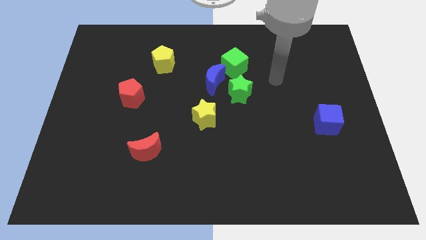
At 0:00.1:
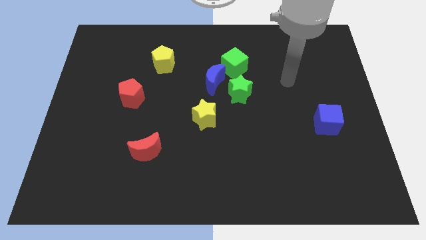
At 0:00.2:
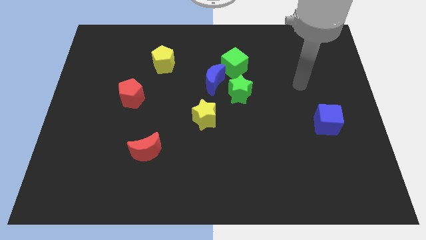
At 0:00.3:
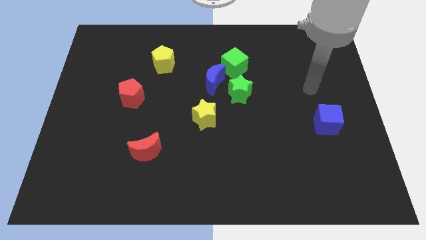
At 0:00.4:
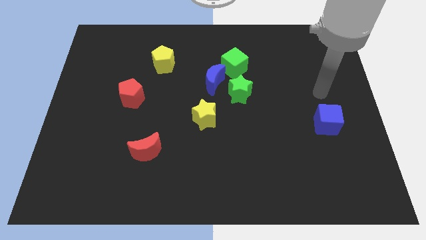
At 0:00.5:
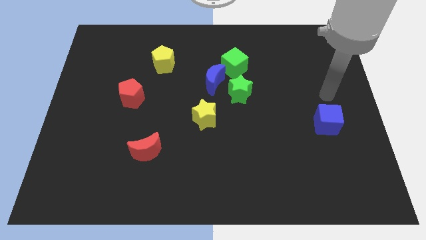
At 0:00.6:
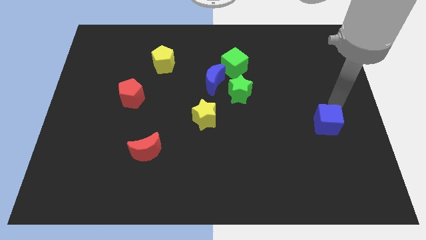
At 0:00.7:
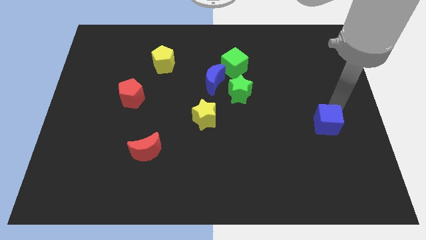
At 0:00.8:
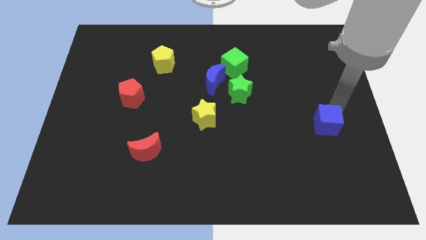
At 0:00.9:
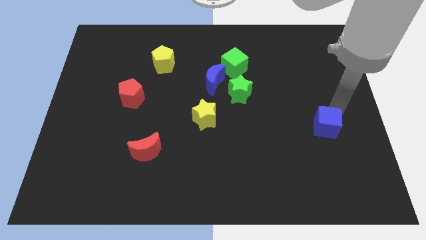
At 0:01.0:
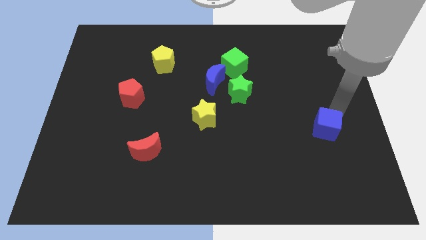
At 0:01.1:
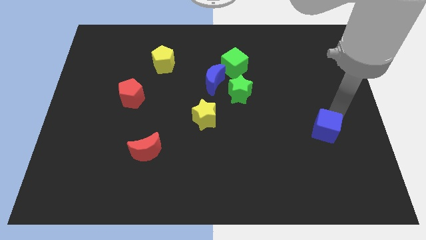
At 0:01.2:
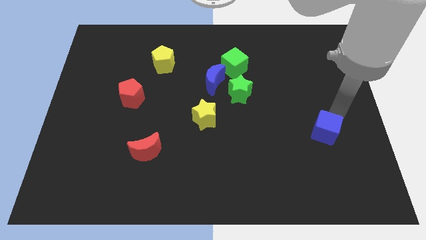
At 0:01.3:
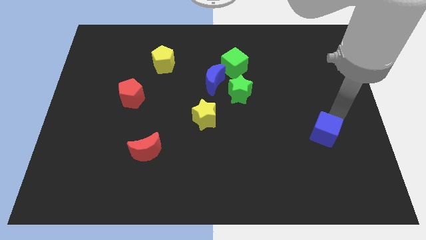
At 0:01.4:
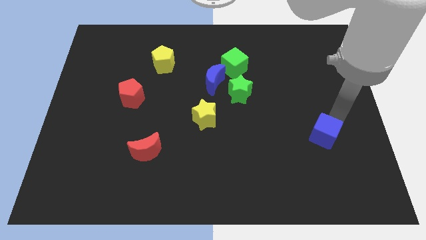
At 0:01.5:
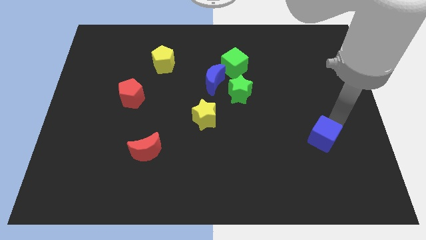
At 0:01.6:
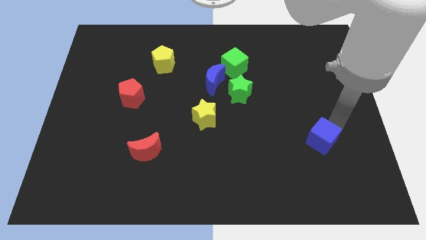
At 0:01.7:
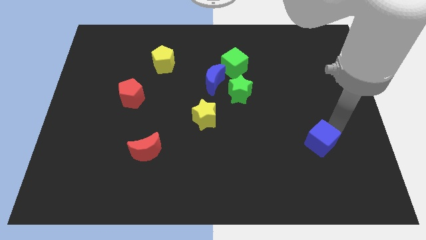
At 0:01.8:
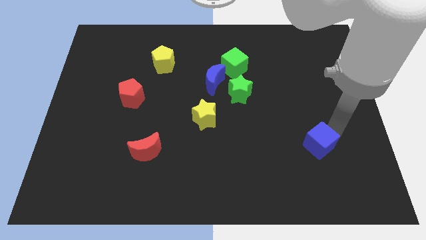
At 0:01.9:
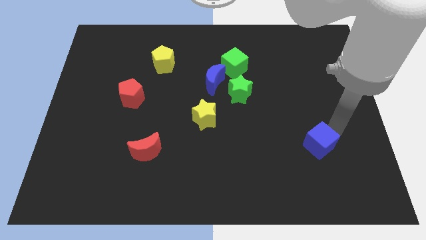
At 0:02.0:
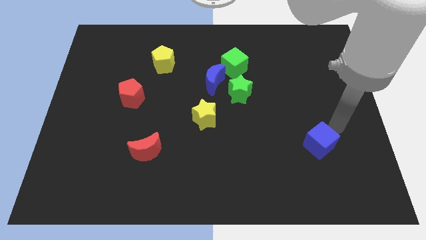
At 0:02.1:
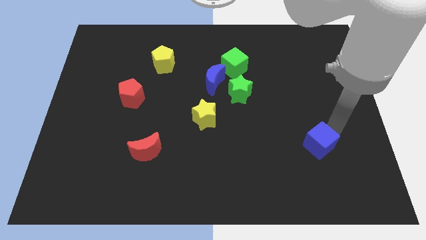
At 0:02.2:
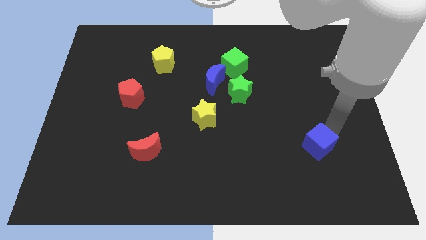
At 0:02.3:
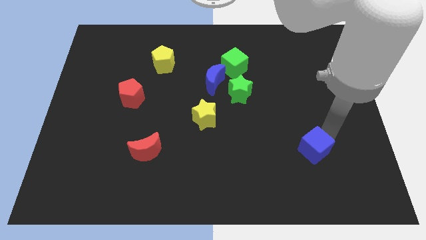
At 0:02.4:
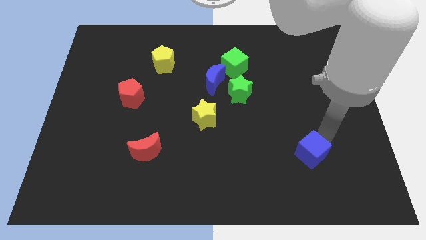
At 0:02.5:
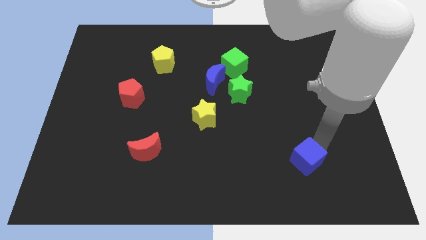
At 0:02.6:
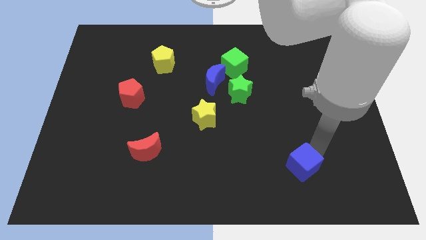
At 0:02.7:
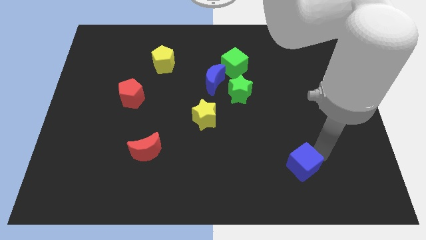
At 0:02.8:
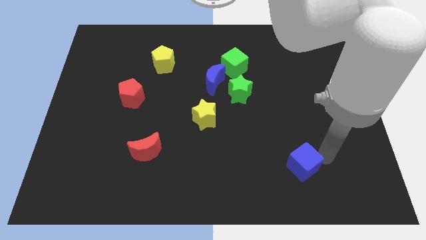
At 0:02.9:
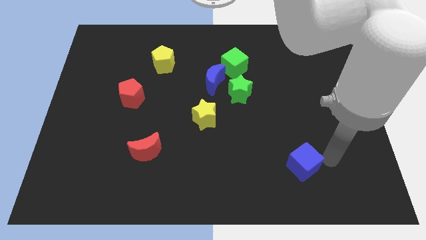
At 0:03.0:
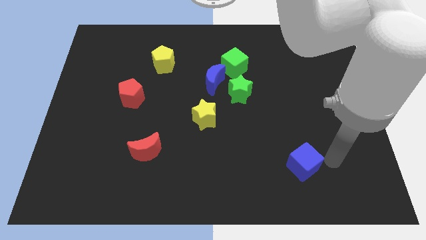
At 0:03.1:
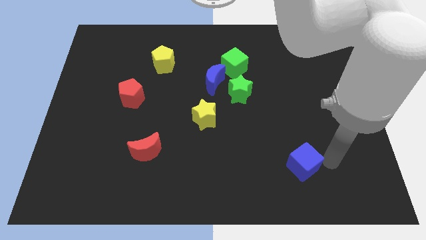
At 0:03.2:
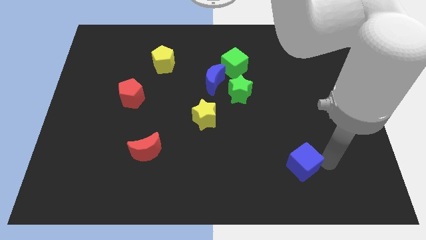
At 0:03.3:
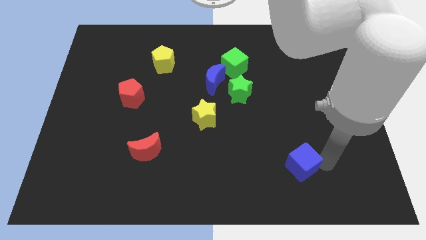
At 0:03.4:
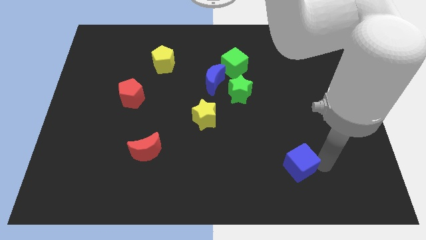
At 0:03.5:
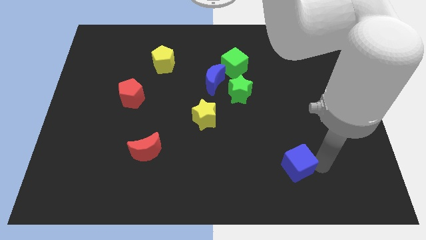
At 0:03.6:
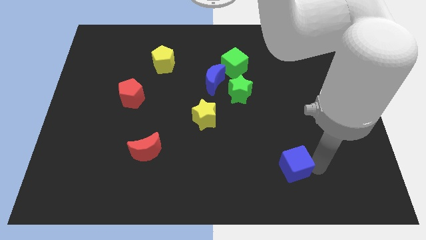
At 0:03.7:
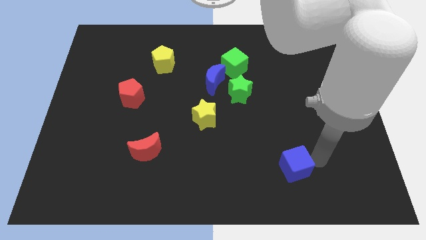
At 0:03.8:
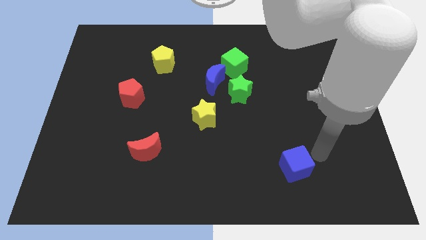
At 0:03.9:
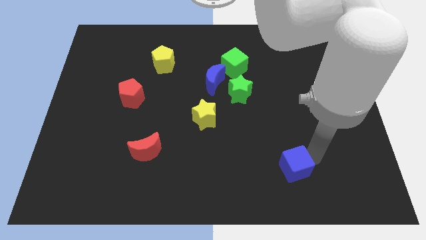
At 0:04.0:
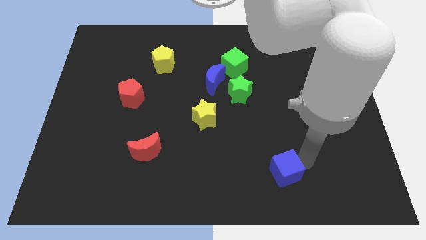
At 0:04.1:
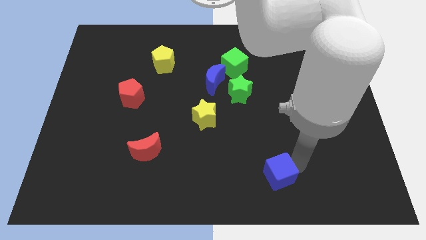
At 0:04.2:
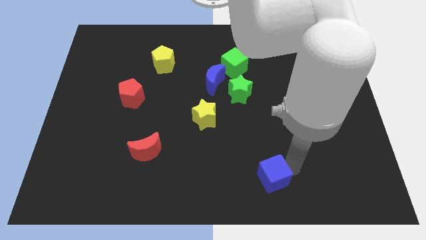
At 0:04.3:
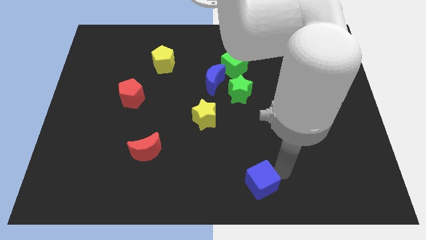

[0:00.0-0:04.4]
push the blue cube to the bottom

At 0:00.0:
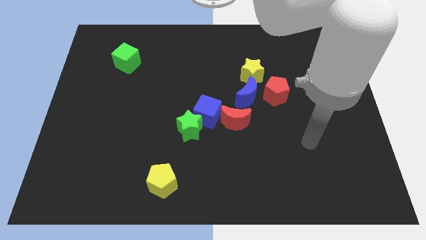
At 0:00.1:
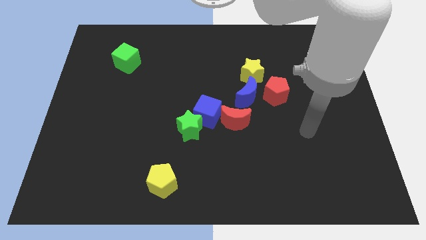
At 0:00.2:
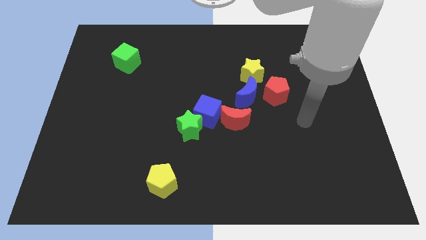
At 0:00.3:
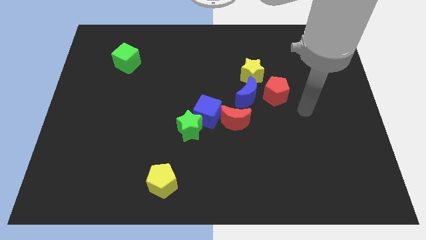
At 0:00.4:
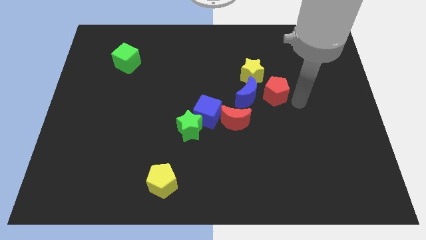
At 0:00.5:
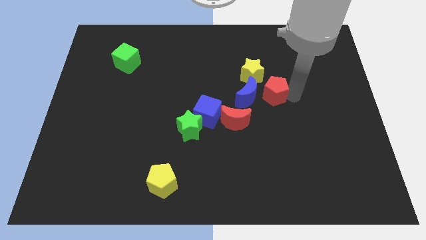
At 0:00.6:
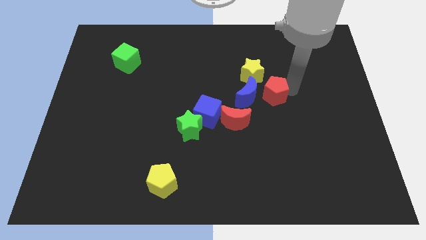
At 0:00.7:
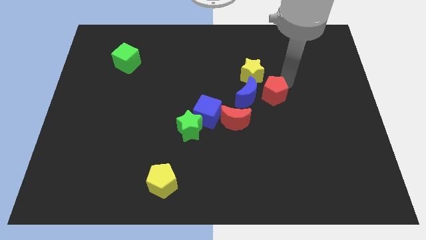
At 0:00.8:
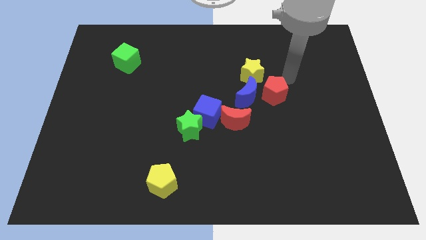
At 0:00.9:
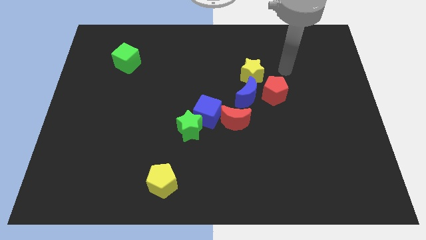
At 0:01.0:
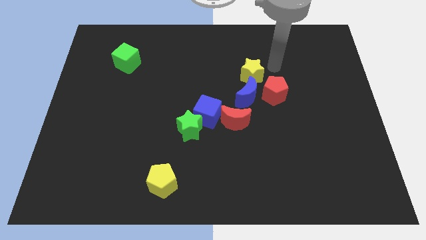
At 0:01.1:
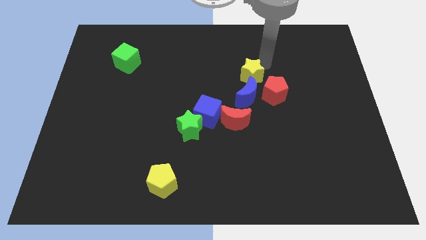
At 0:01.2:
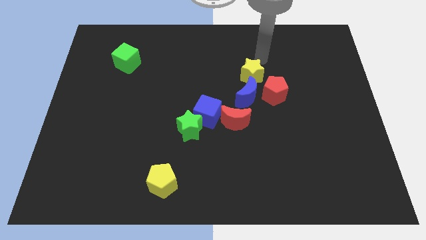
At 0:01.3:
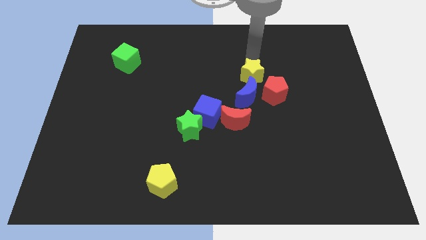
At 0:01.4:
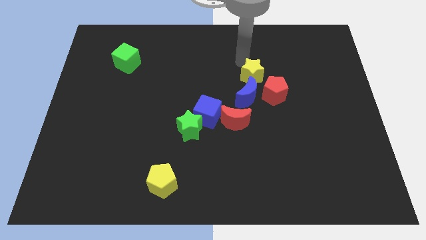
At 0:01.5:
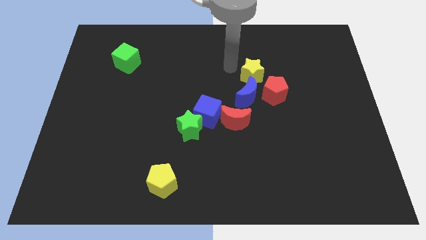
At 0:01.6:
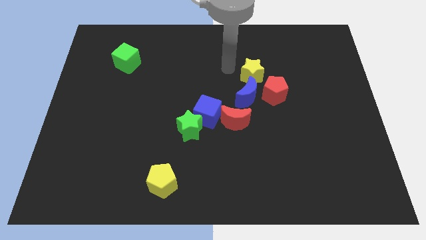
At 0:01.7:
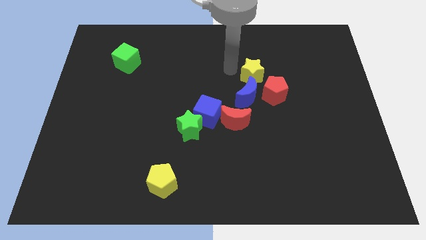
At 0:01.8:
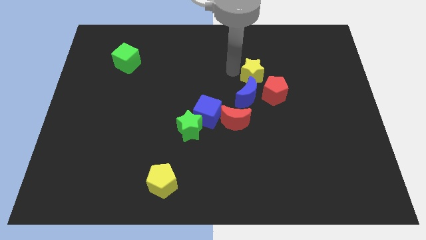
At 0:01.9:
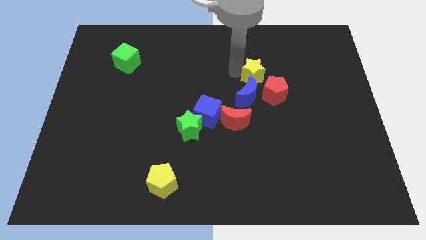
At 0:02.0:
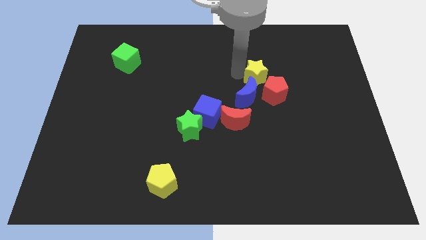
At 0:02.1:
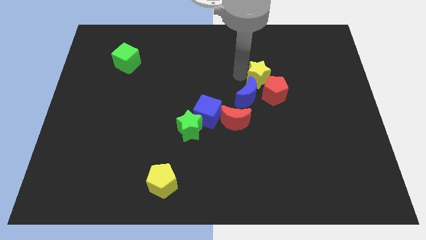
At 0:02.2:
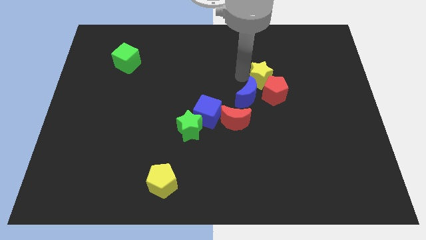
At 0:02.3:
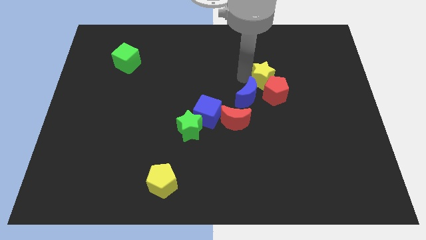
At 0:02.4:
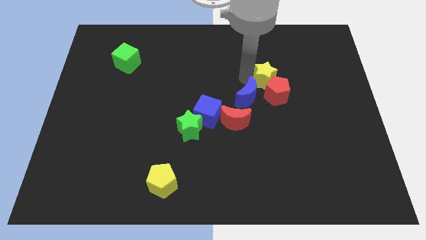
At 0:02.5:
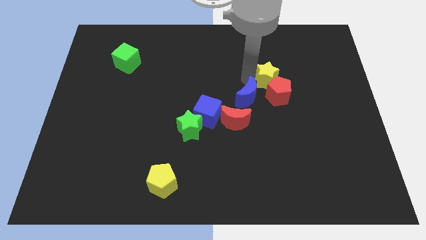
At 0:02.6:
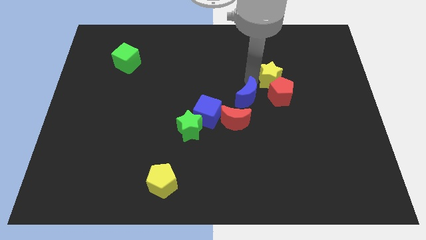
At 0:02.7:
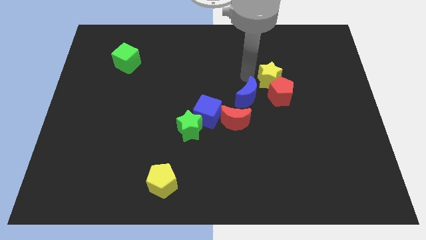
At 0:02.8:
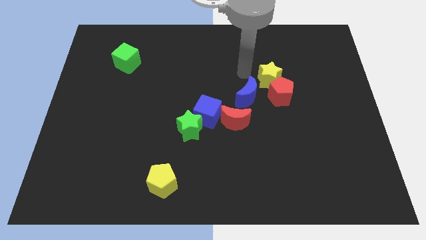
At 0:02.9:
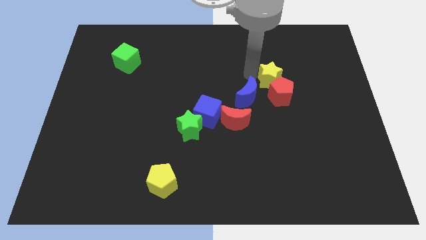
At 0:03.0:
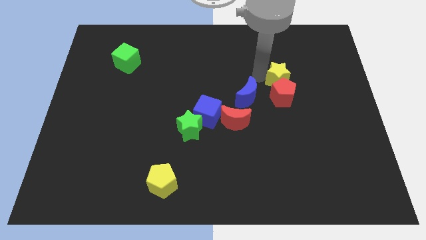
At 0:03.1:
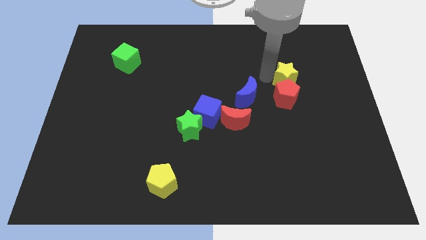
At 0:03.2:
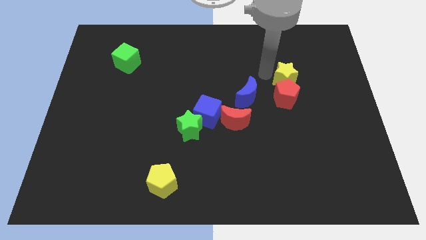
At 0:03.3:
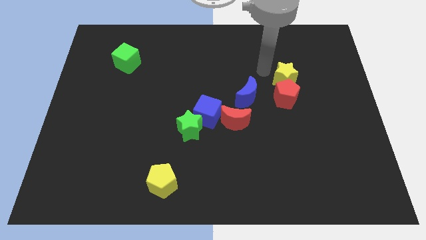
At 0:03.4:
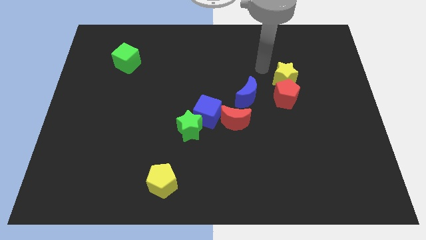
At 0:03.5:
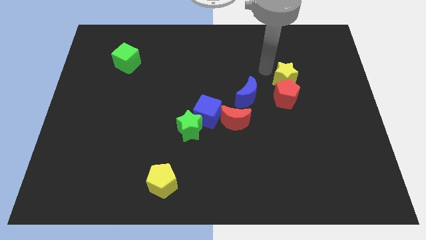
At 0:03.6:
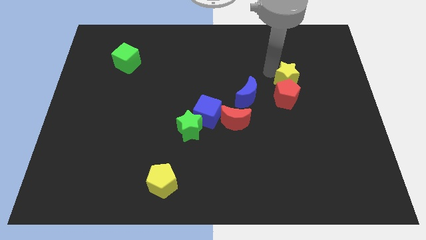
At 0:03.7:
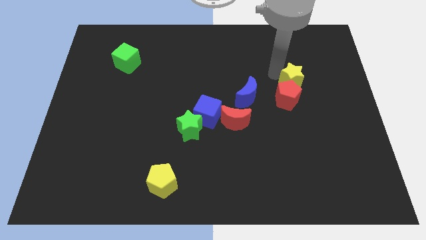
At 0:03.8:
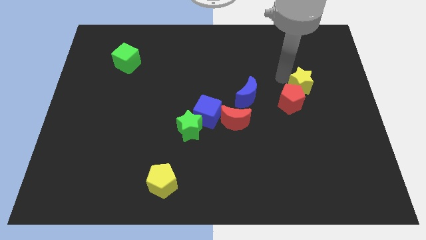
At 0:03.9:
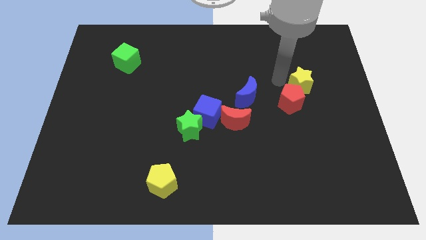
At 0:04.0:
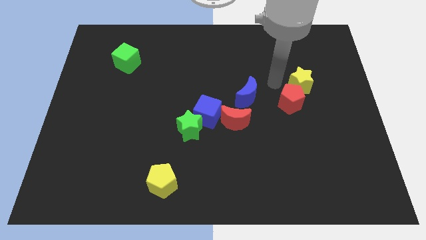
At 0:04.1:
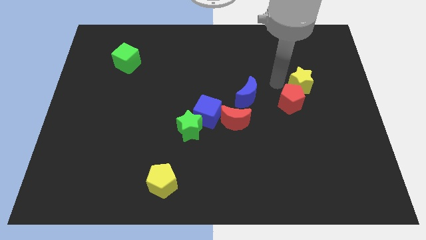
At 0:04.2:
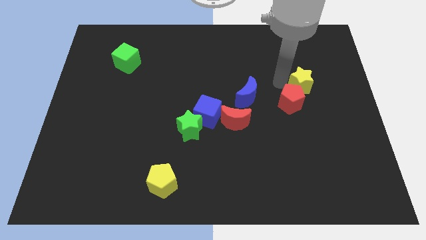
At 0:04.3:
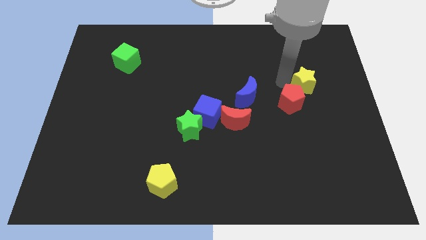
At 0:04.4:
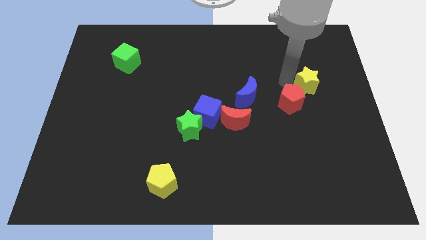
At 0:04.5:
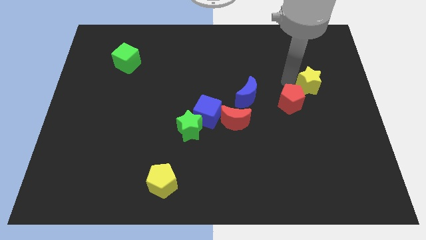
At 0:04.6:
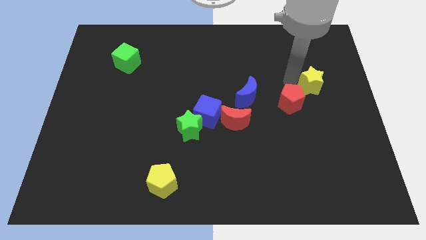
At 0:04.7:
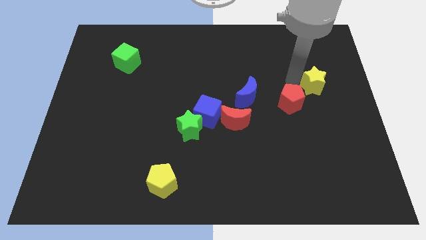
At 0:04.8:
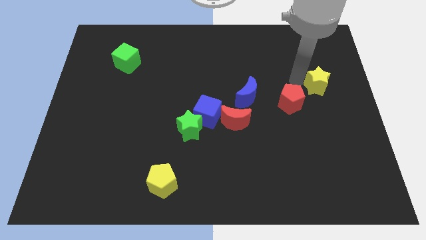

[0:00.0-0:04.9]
push the yellow star to the center right
